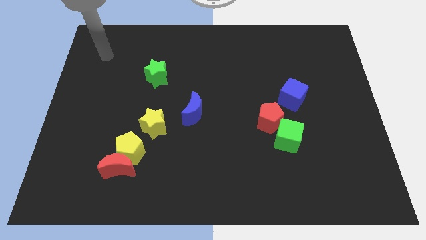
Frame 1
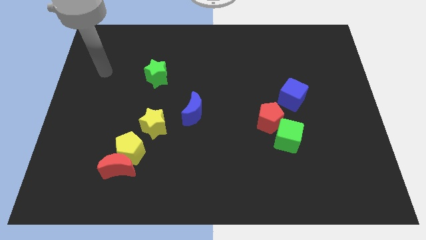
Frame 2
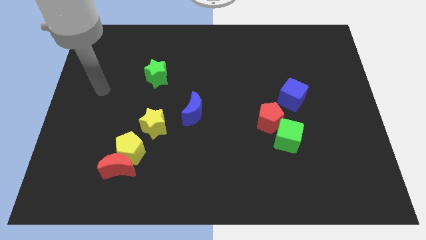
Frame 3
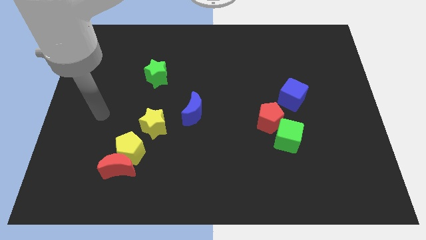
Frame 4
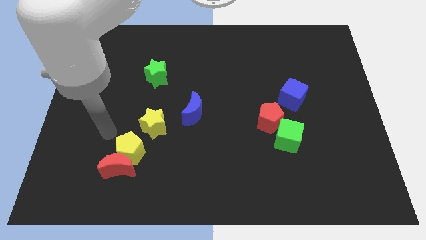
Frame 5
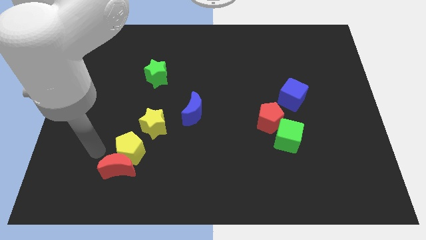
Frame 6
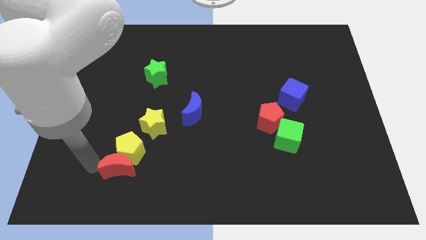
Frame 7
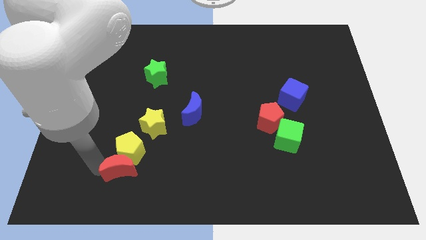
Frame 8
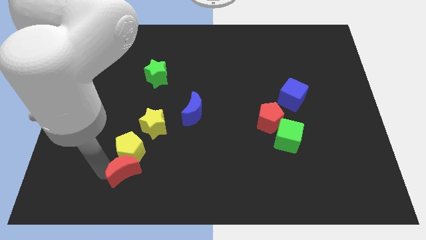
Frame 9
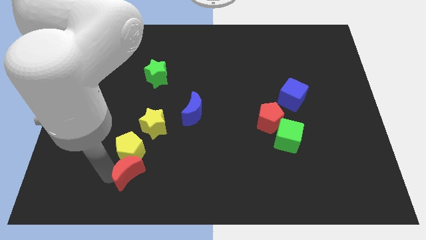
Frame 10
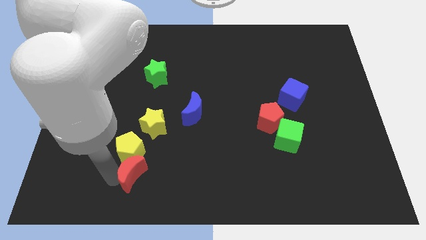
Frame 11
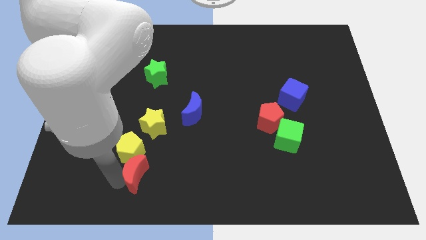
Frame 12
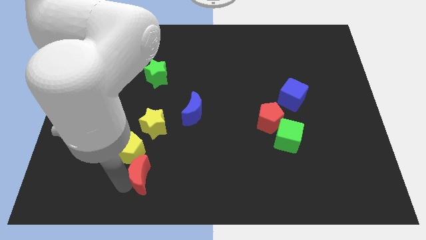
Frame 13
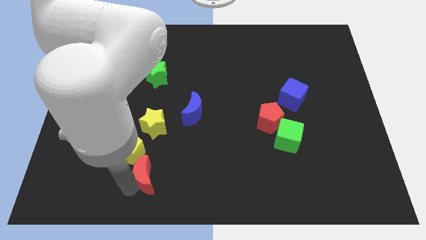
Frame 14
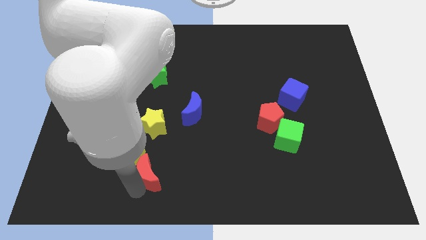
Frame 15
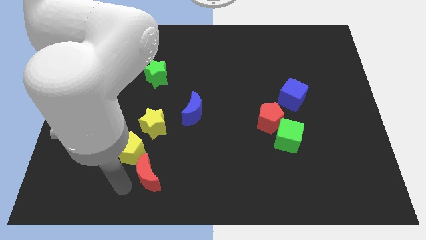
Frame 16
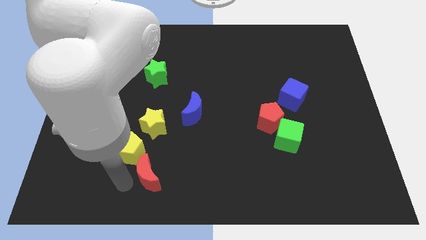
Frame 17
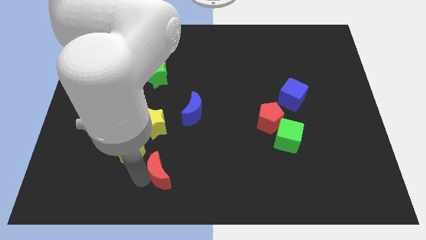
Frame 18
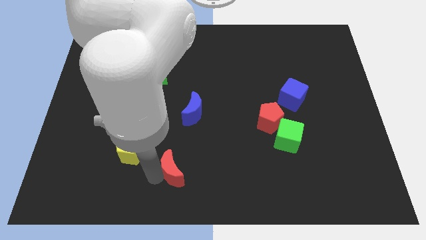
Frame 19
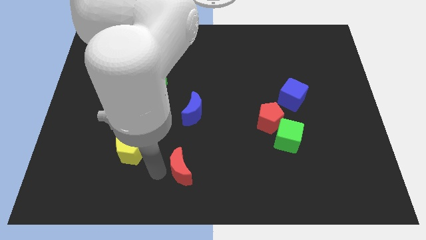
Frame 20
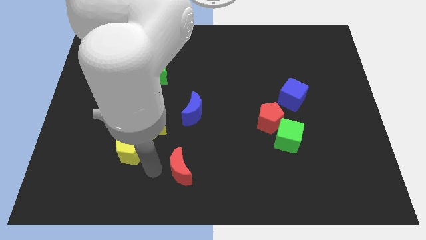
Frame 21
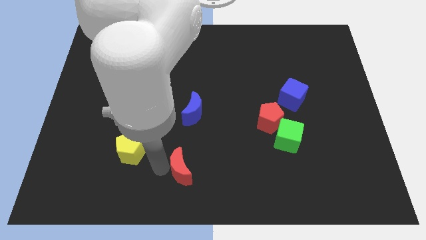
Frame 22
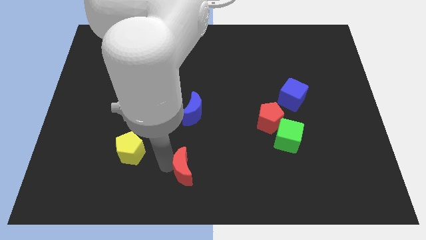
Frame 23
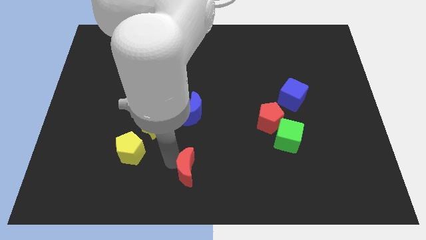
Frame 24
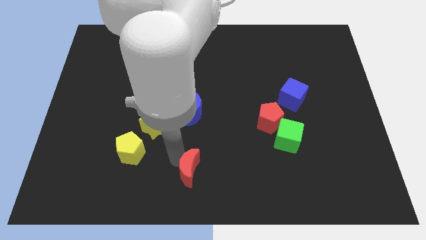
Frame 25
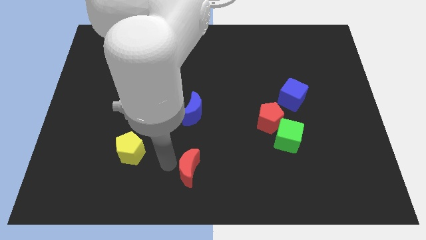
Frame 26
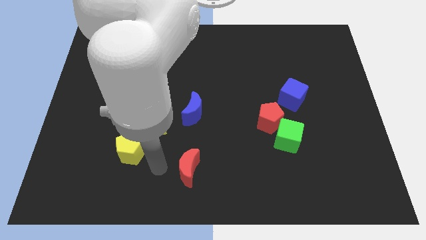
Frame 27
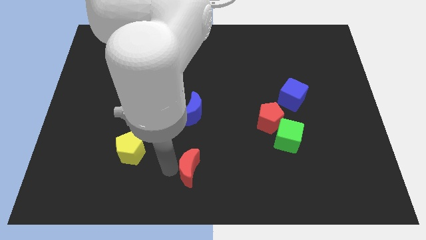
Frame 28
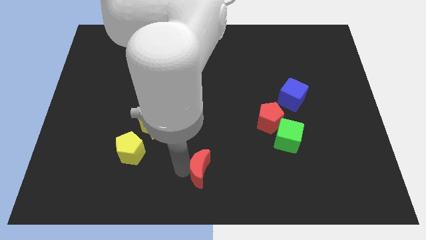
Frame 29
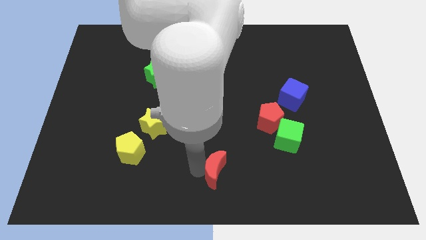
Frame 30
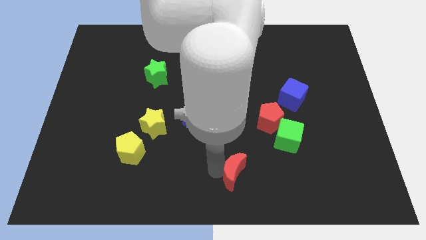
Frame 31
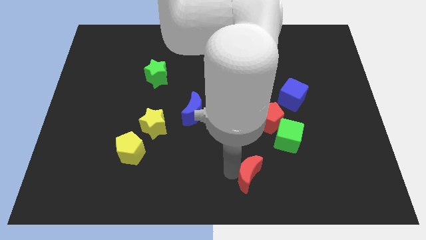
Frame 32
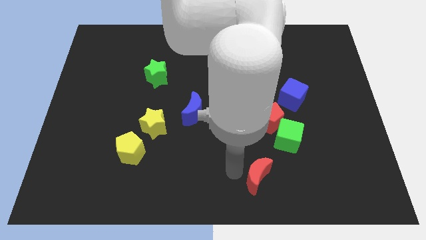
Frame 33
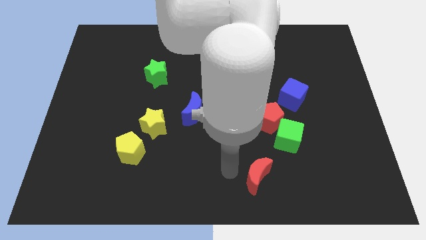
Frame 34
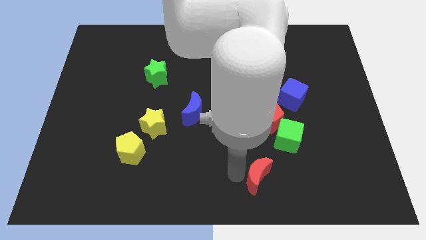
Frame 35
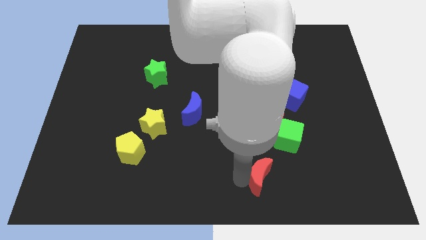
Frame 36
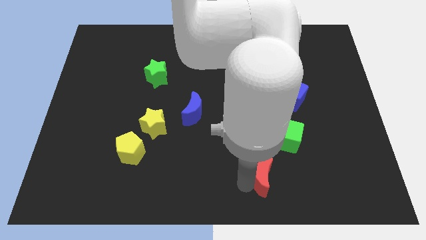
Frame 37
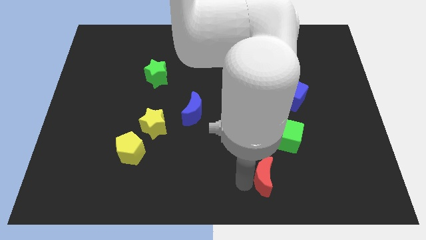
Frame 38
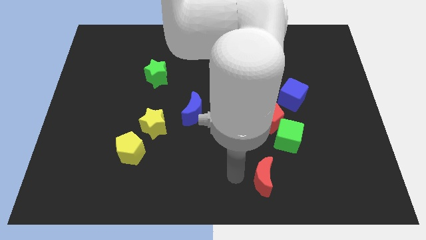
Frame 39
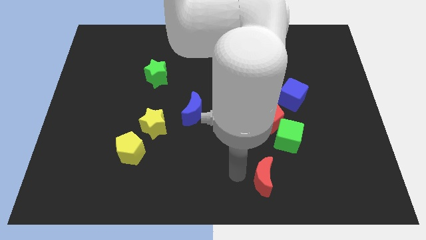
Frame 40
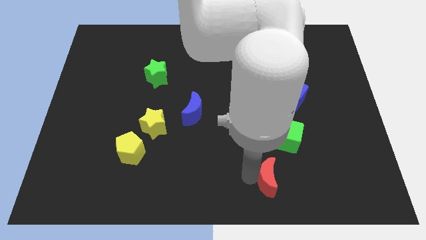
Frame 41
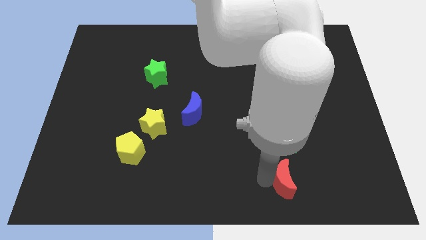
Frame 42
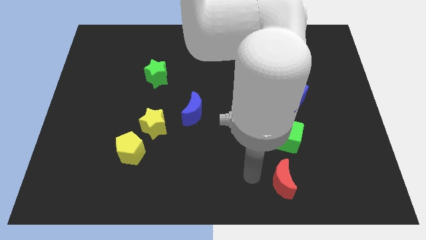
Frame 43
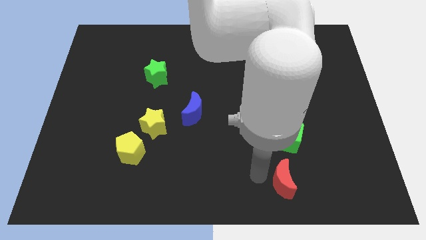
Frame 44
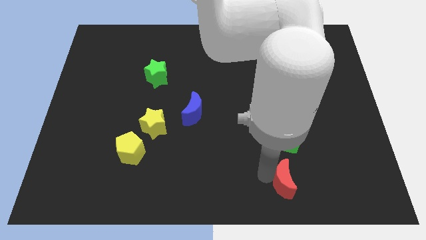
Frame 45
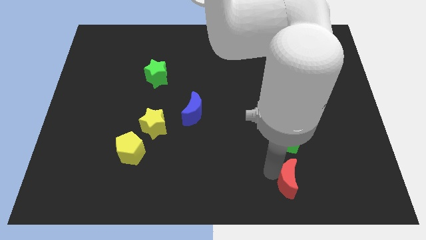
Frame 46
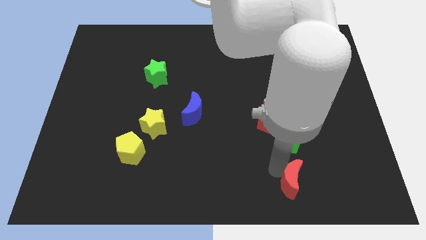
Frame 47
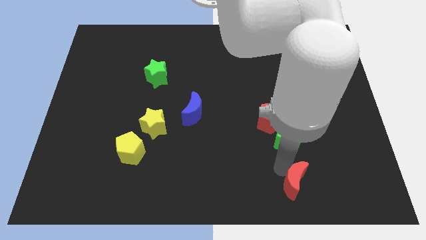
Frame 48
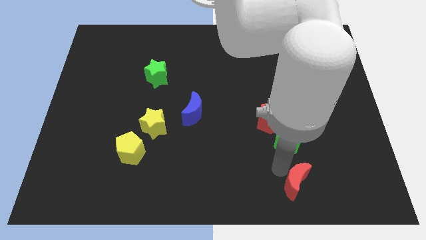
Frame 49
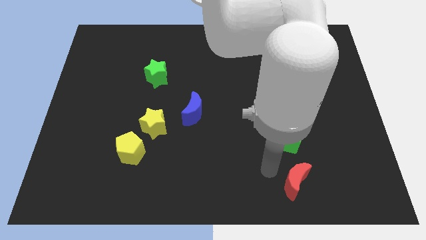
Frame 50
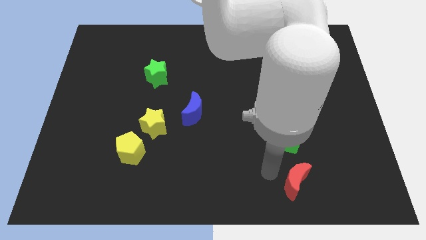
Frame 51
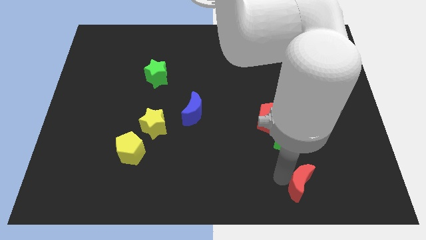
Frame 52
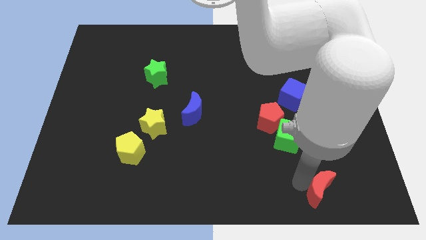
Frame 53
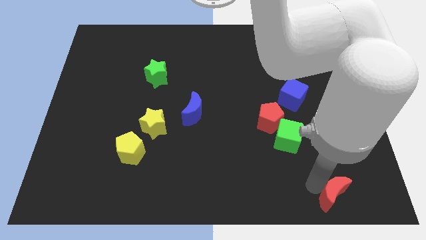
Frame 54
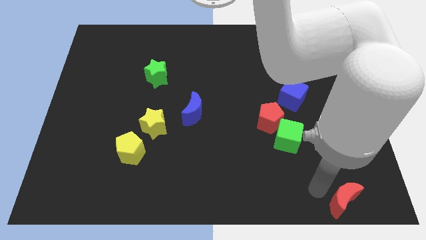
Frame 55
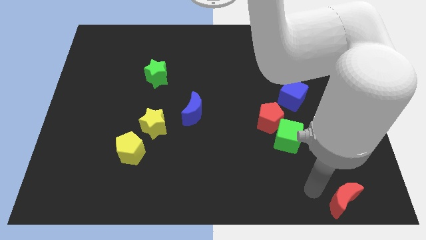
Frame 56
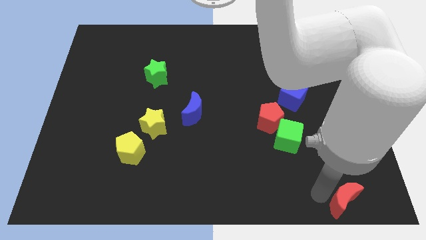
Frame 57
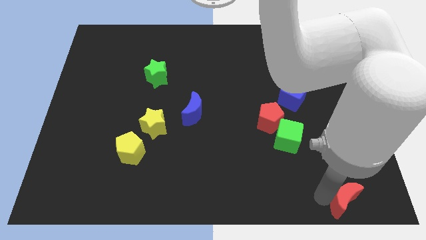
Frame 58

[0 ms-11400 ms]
push the red moon to the bottom right

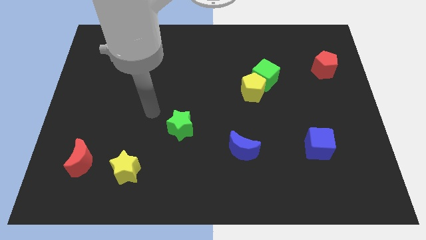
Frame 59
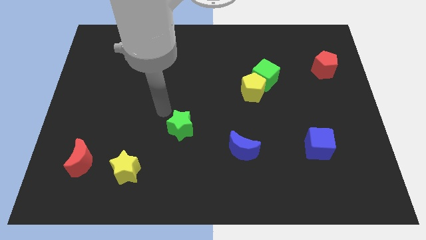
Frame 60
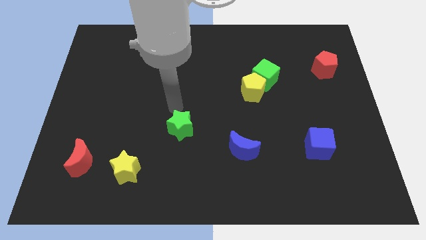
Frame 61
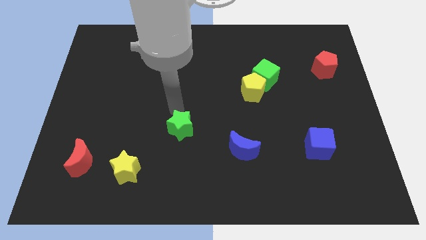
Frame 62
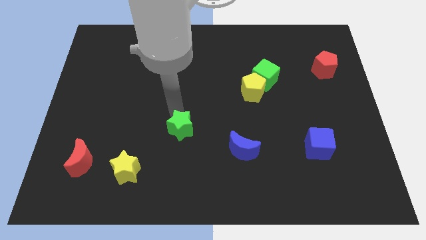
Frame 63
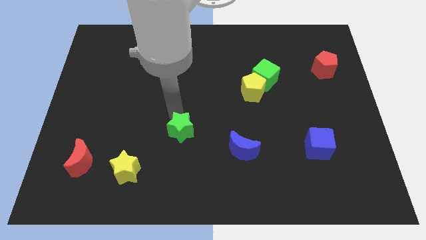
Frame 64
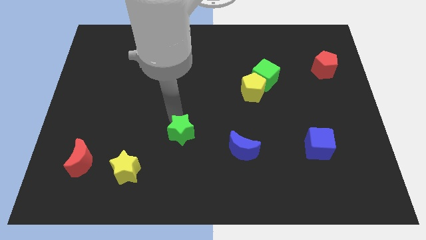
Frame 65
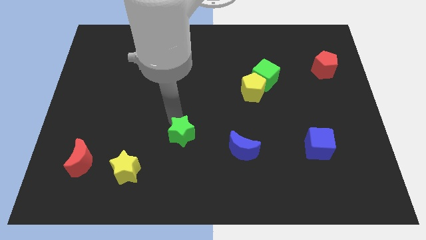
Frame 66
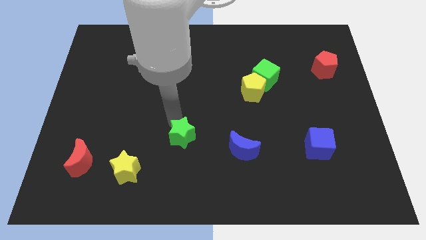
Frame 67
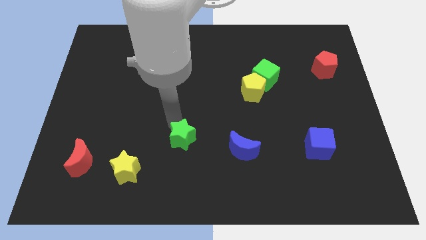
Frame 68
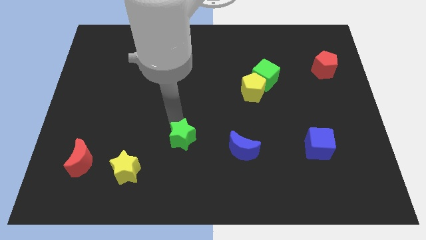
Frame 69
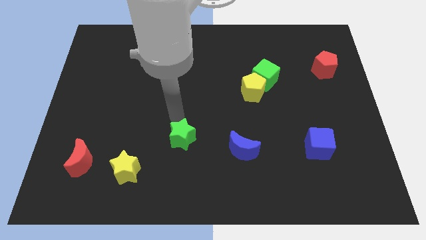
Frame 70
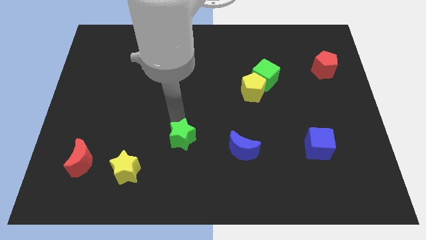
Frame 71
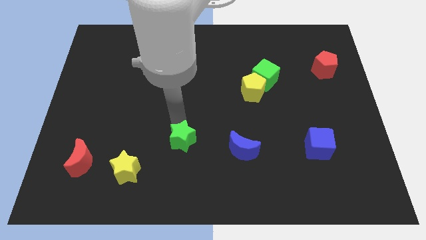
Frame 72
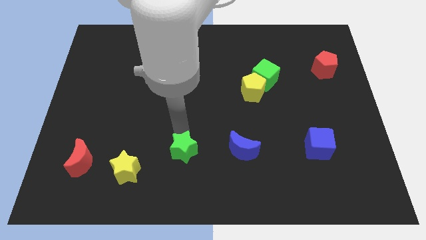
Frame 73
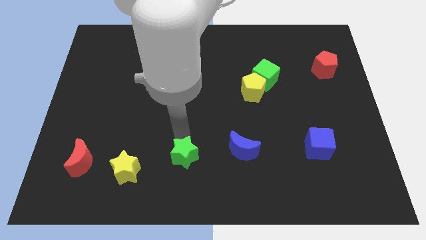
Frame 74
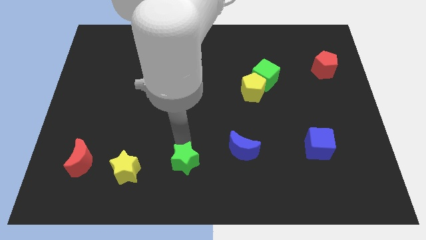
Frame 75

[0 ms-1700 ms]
push the green star to the bottom
